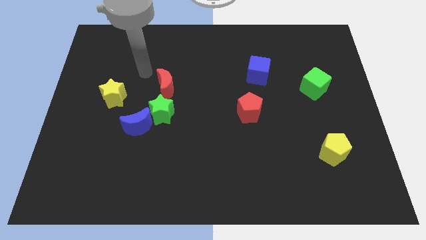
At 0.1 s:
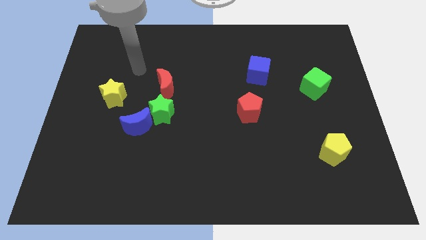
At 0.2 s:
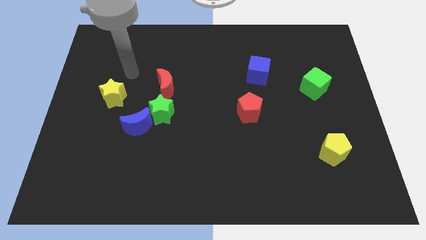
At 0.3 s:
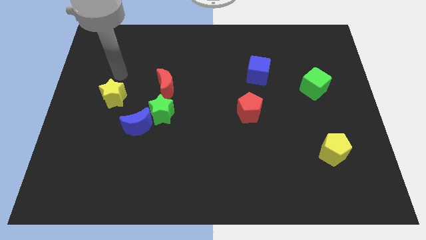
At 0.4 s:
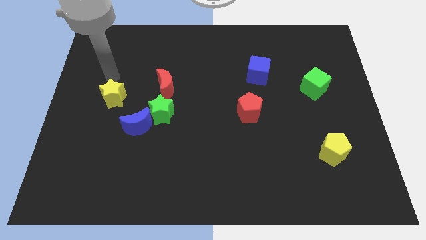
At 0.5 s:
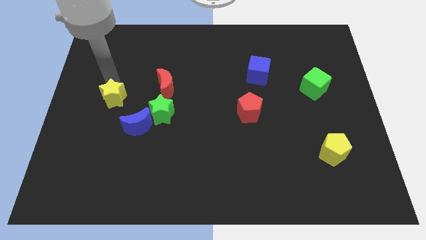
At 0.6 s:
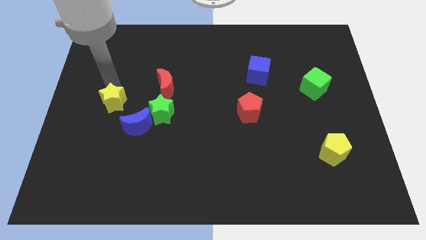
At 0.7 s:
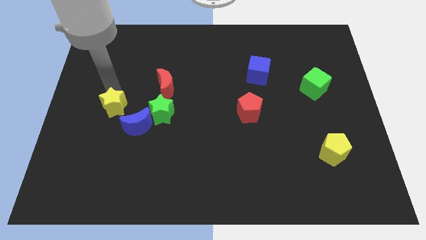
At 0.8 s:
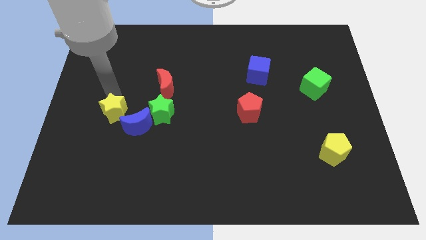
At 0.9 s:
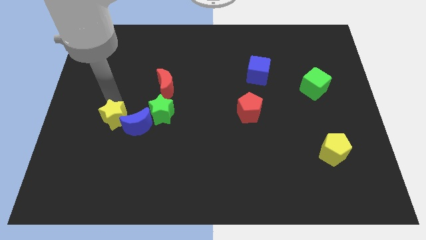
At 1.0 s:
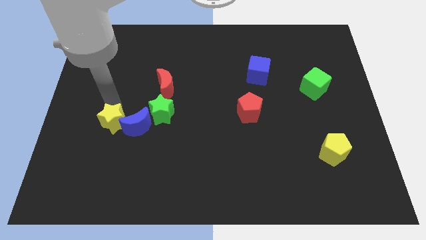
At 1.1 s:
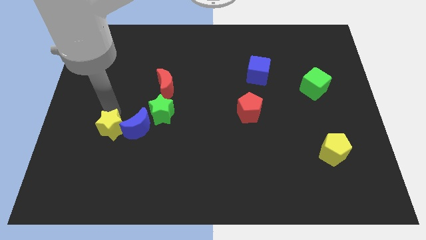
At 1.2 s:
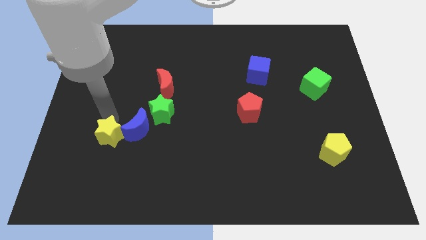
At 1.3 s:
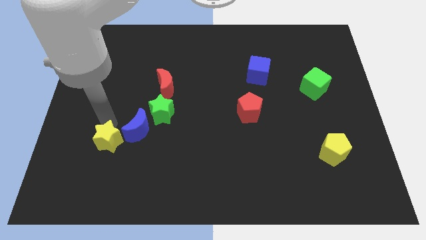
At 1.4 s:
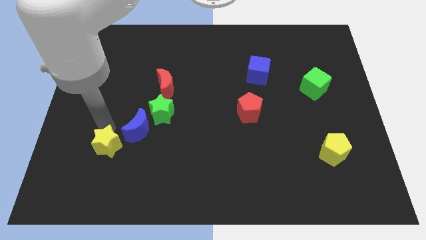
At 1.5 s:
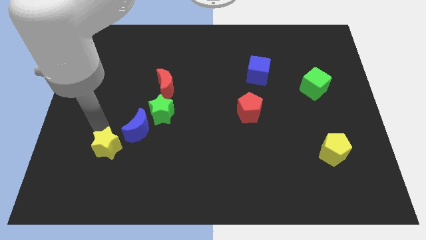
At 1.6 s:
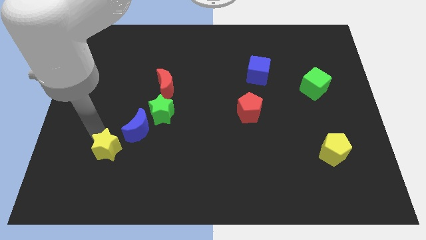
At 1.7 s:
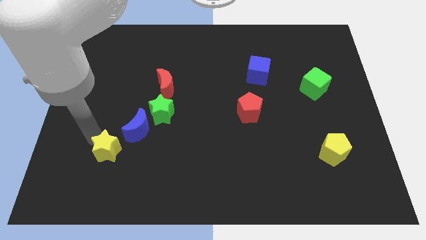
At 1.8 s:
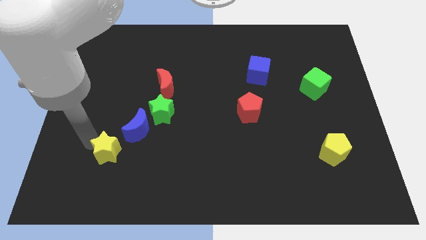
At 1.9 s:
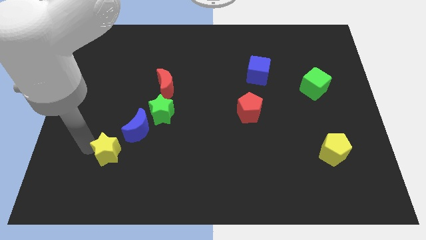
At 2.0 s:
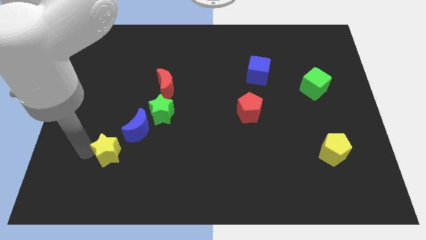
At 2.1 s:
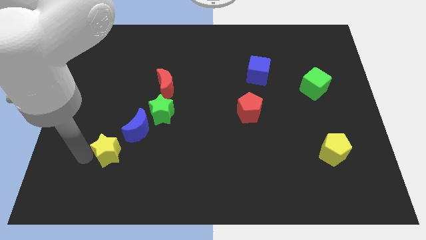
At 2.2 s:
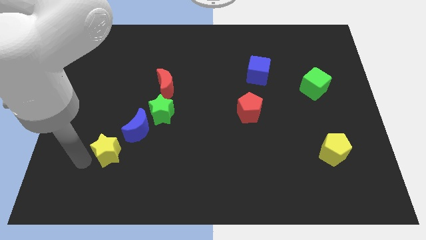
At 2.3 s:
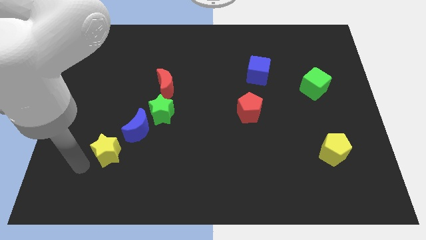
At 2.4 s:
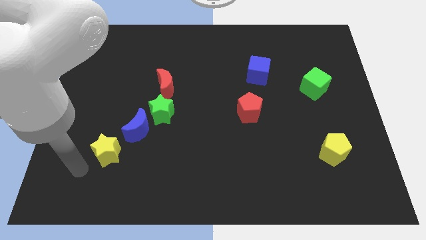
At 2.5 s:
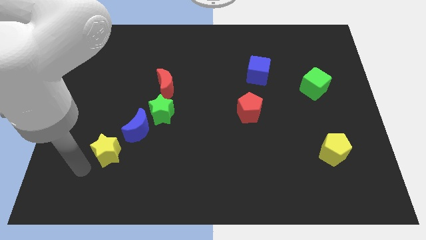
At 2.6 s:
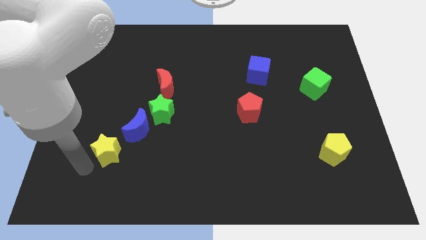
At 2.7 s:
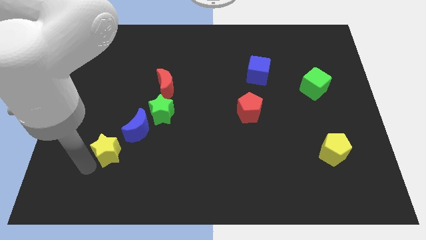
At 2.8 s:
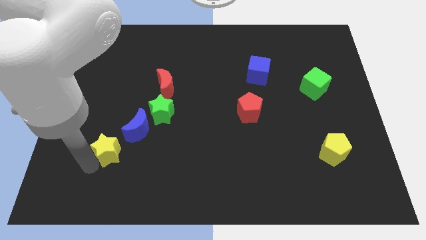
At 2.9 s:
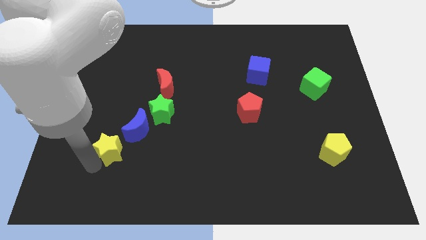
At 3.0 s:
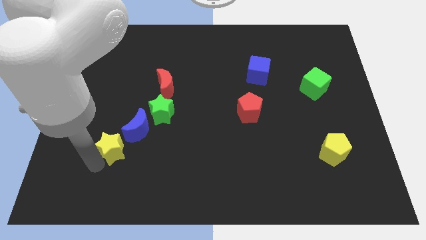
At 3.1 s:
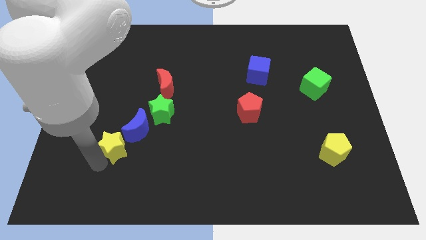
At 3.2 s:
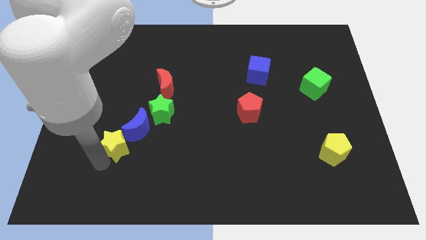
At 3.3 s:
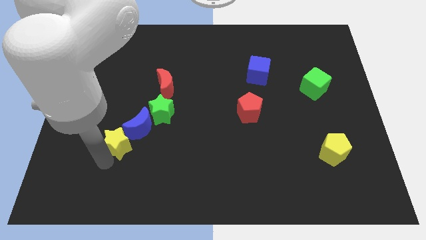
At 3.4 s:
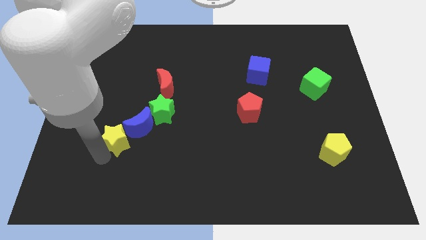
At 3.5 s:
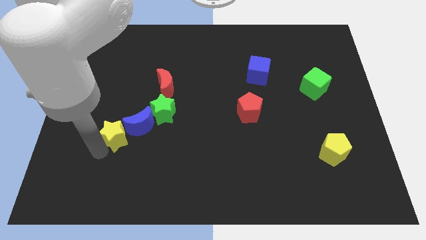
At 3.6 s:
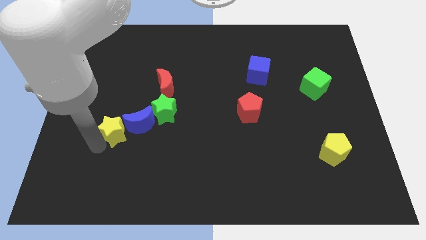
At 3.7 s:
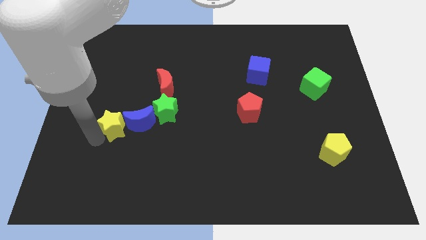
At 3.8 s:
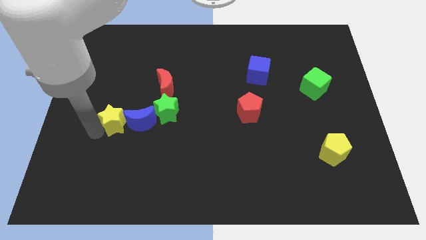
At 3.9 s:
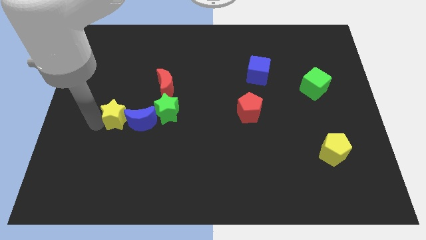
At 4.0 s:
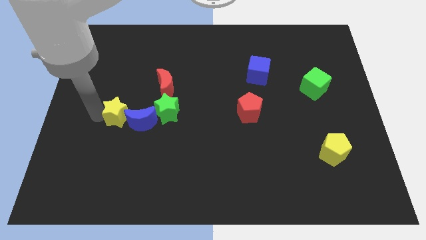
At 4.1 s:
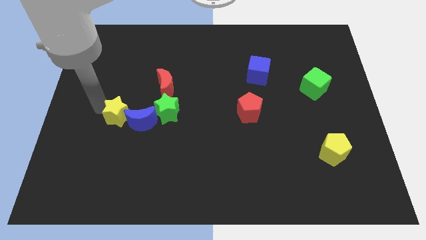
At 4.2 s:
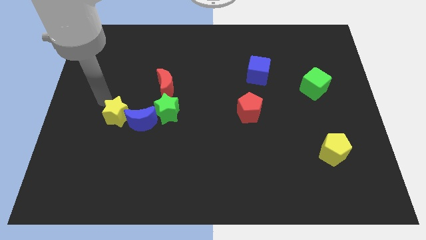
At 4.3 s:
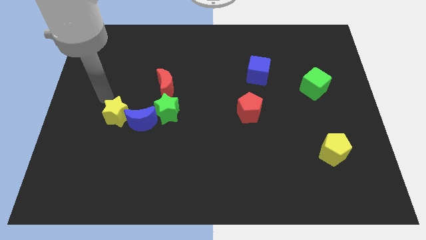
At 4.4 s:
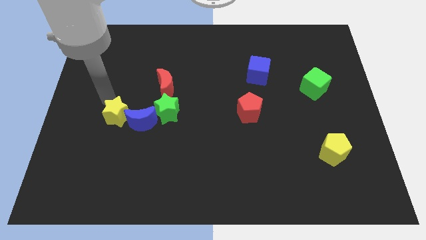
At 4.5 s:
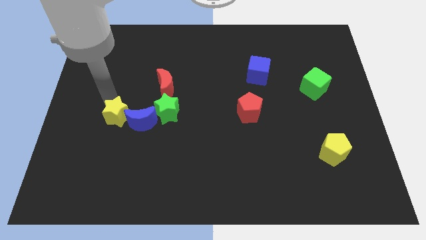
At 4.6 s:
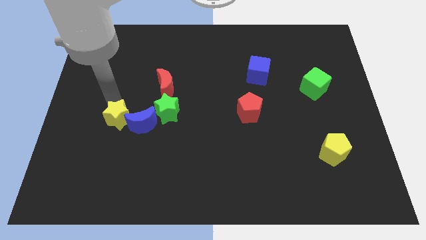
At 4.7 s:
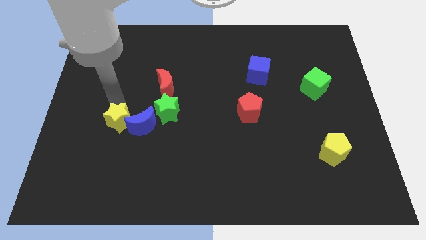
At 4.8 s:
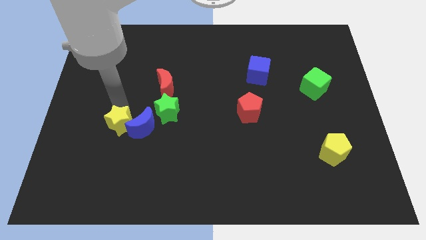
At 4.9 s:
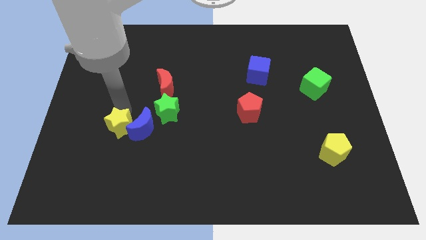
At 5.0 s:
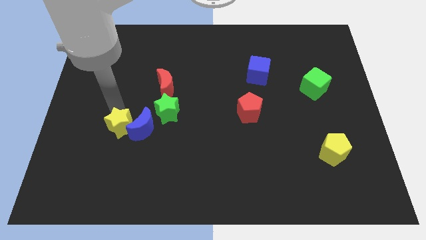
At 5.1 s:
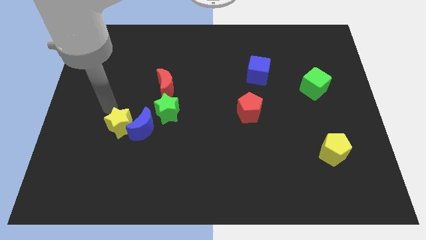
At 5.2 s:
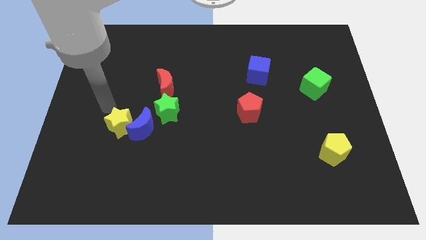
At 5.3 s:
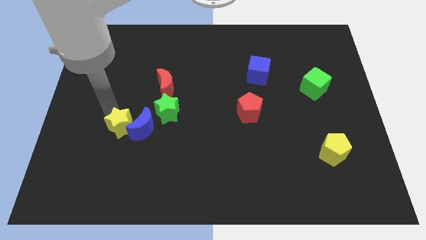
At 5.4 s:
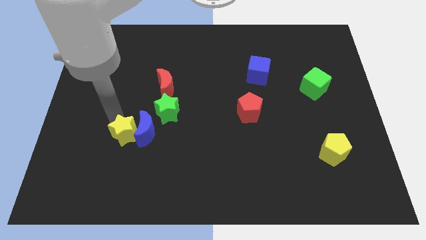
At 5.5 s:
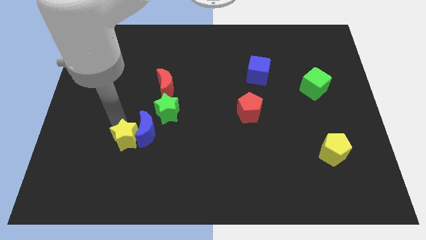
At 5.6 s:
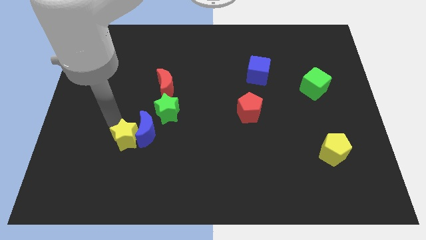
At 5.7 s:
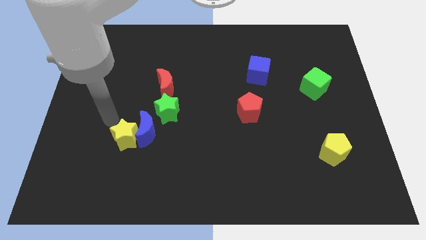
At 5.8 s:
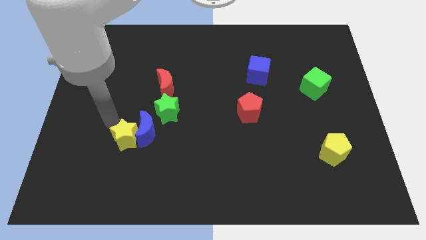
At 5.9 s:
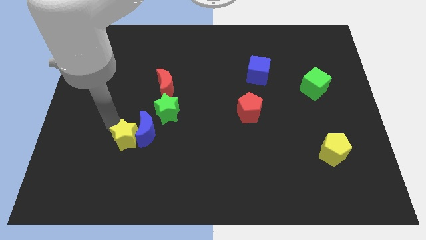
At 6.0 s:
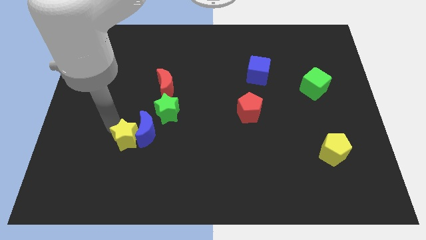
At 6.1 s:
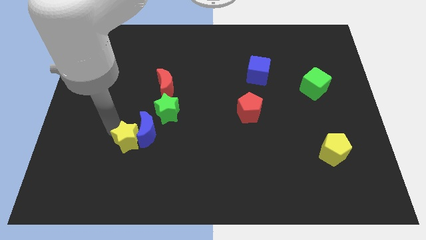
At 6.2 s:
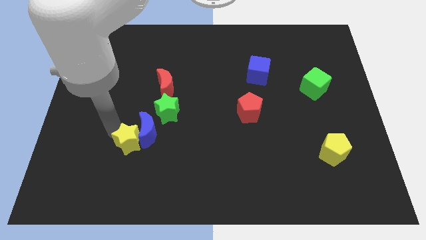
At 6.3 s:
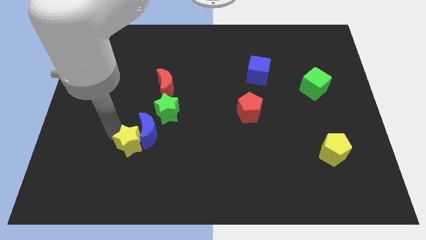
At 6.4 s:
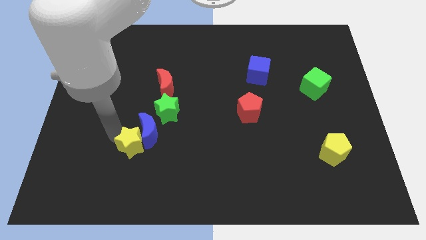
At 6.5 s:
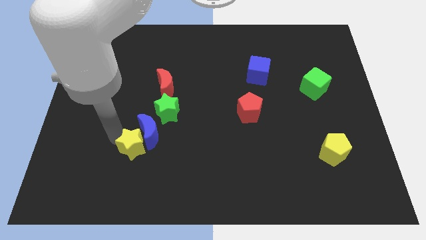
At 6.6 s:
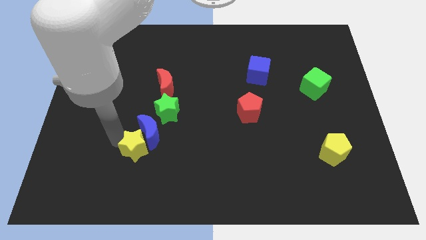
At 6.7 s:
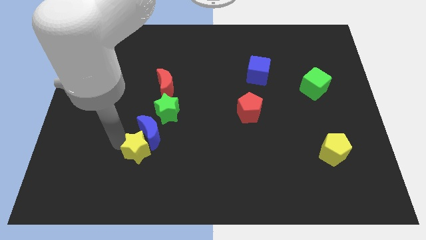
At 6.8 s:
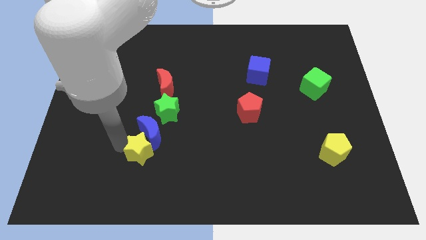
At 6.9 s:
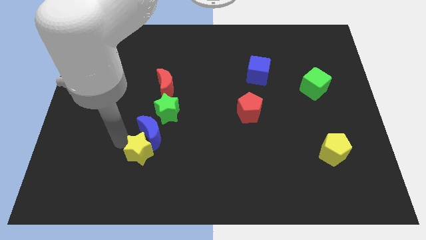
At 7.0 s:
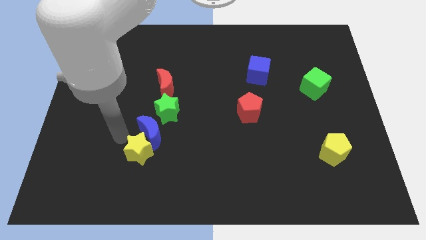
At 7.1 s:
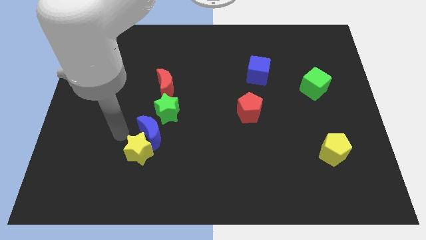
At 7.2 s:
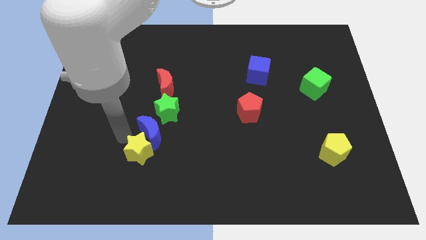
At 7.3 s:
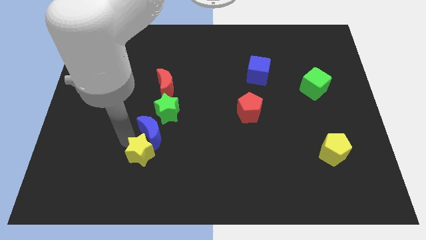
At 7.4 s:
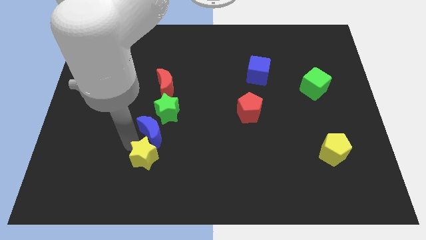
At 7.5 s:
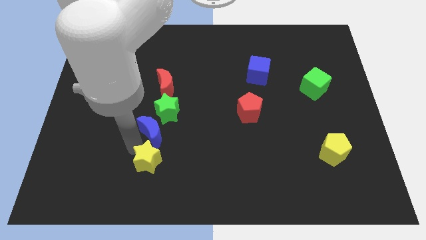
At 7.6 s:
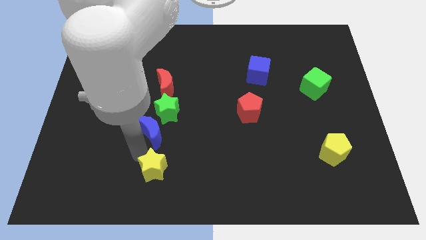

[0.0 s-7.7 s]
move the yellow star diagonally down and to the right

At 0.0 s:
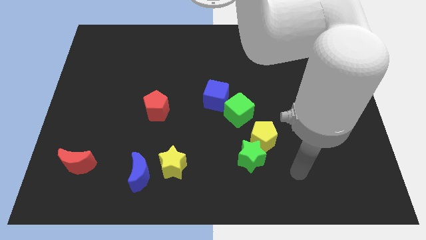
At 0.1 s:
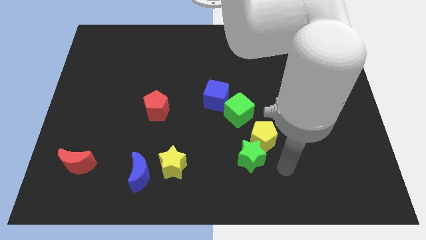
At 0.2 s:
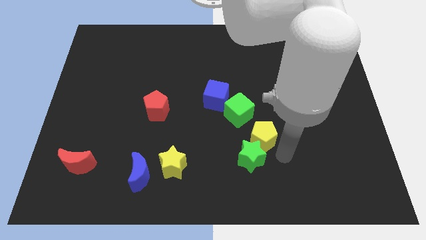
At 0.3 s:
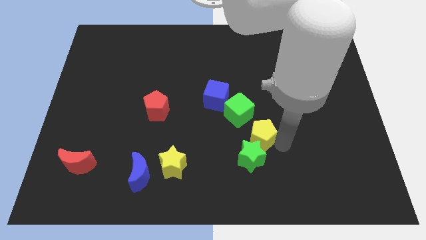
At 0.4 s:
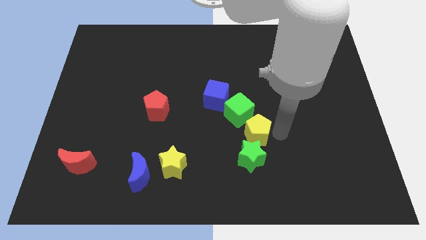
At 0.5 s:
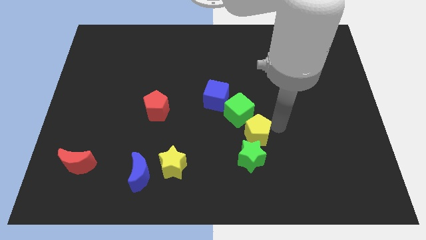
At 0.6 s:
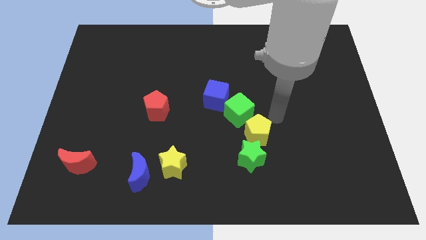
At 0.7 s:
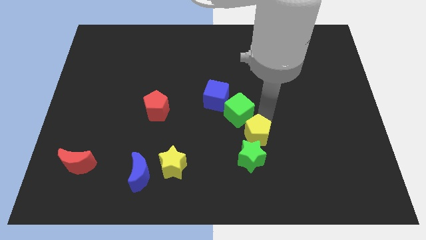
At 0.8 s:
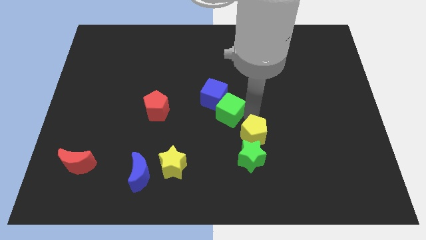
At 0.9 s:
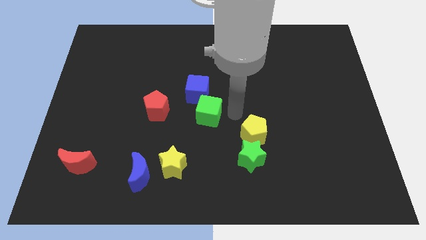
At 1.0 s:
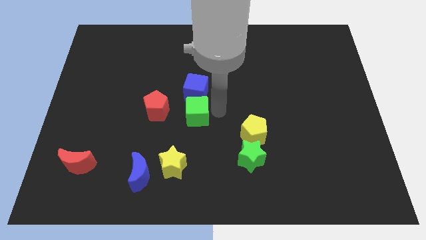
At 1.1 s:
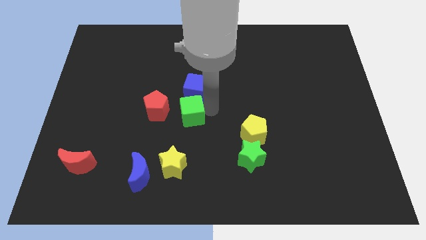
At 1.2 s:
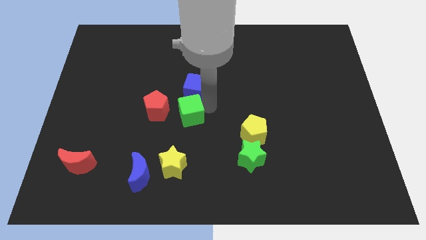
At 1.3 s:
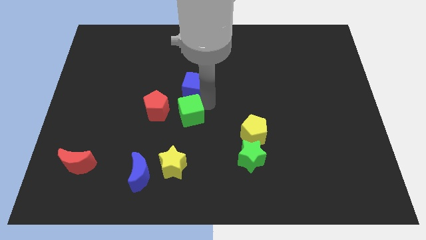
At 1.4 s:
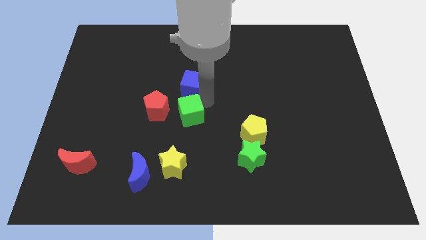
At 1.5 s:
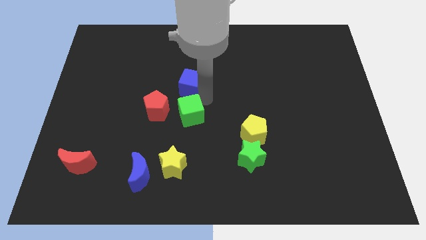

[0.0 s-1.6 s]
slide the blue cube somewhat diagonally upwards and left
